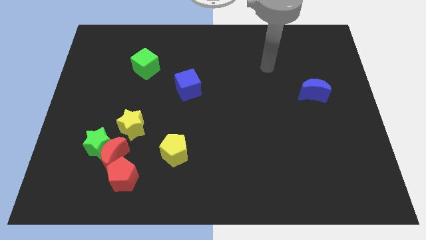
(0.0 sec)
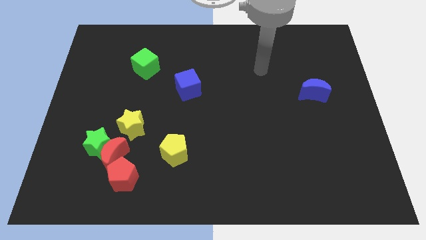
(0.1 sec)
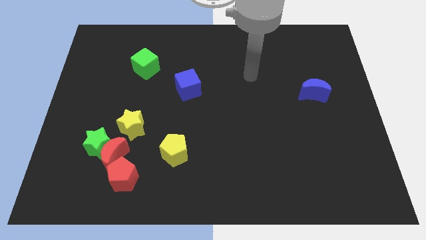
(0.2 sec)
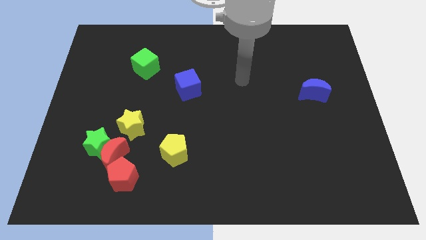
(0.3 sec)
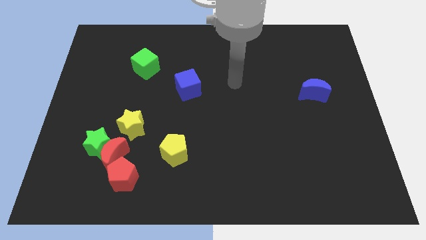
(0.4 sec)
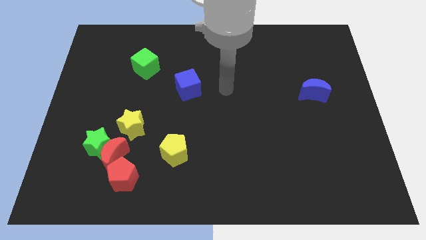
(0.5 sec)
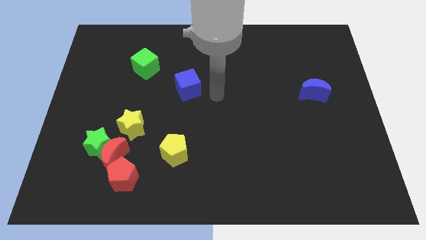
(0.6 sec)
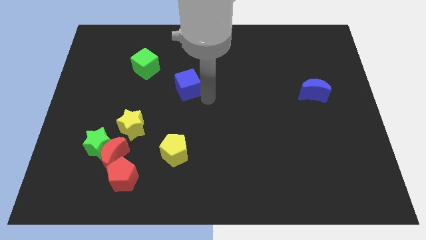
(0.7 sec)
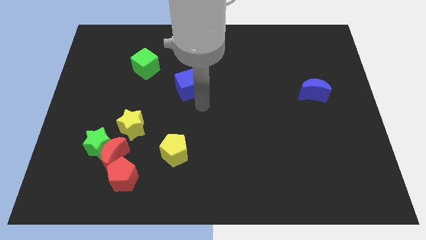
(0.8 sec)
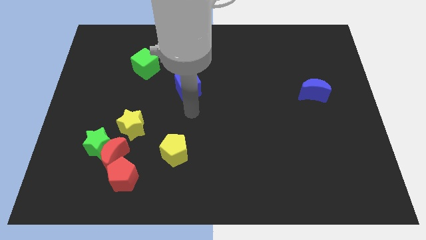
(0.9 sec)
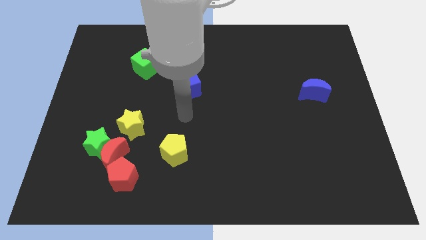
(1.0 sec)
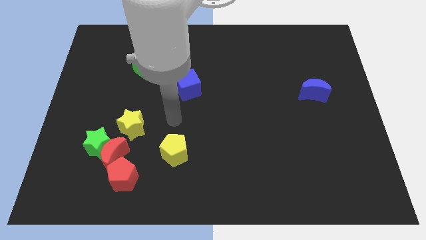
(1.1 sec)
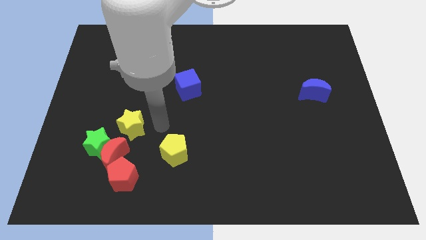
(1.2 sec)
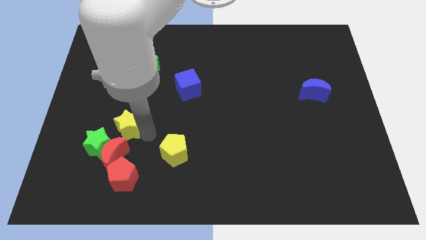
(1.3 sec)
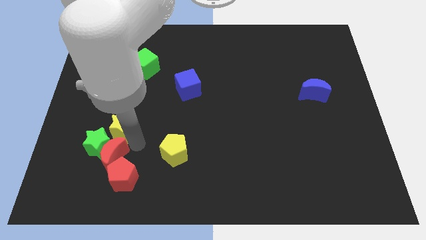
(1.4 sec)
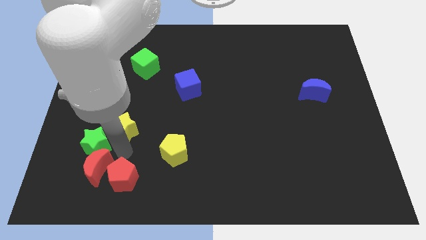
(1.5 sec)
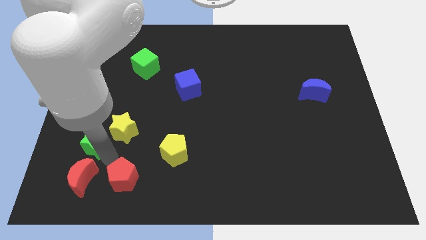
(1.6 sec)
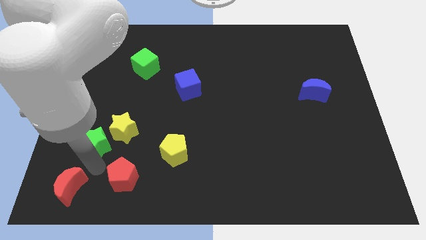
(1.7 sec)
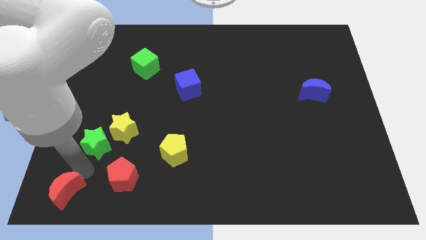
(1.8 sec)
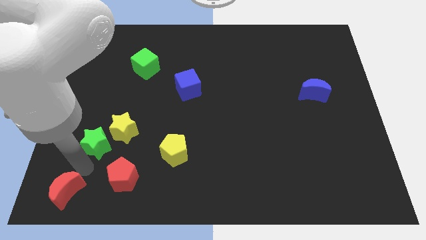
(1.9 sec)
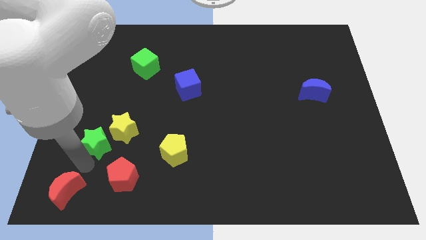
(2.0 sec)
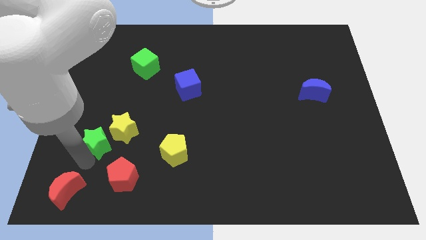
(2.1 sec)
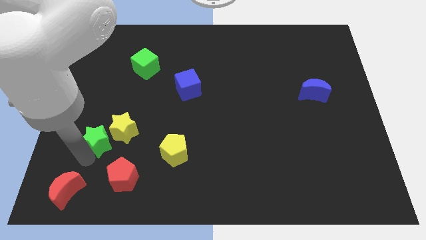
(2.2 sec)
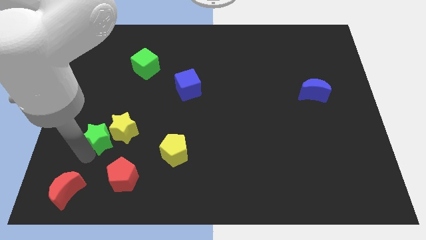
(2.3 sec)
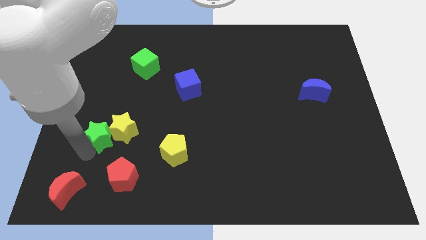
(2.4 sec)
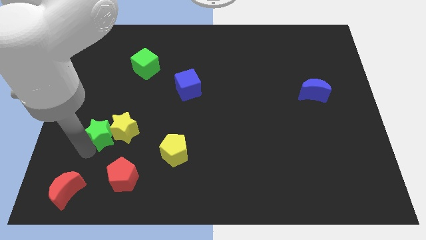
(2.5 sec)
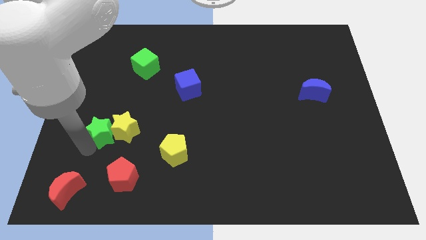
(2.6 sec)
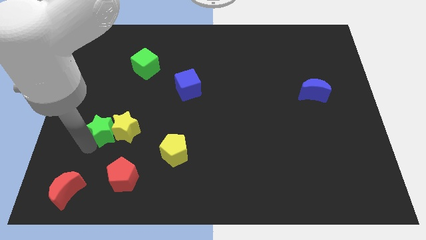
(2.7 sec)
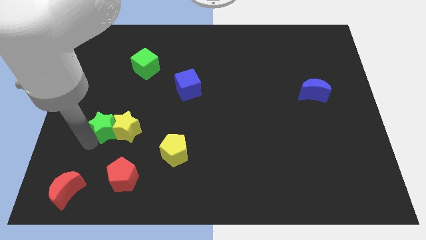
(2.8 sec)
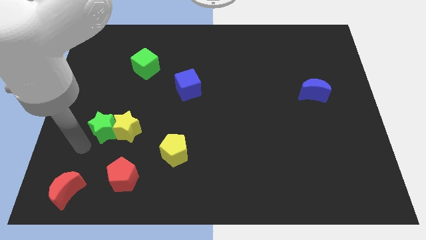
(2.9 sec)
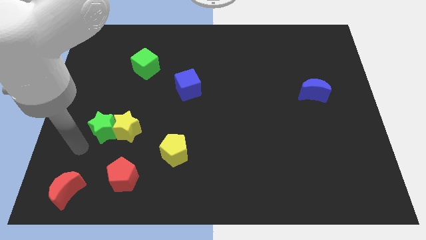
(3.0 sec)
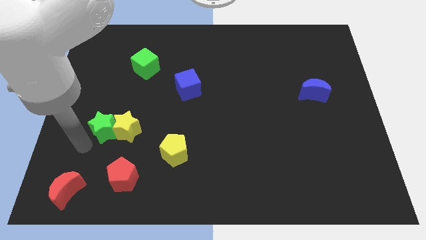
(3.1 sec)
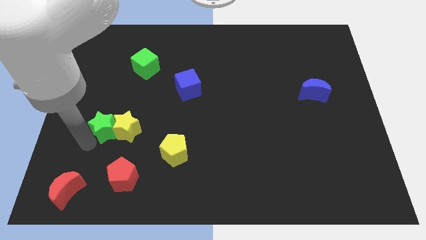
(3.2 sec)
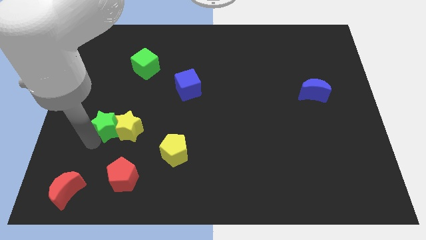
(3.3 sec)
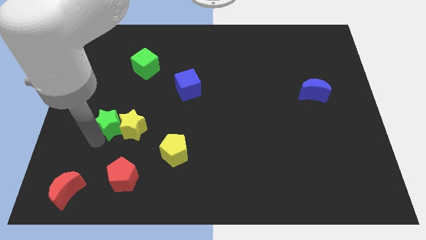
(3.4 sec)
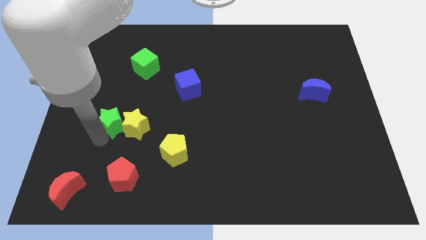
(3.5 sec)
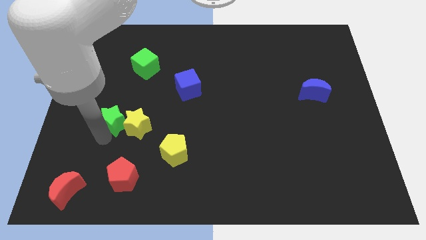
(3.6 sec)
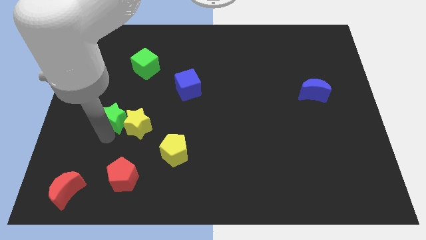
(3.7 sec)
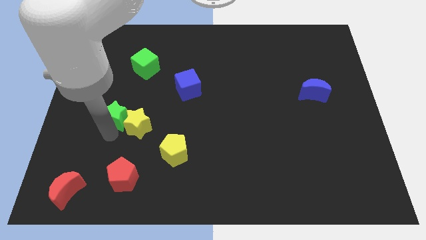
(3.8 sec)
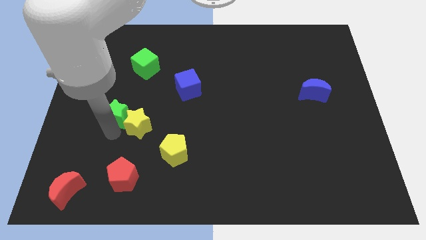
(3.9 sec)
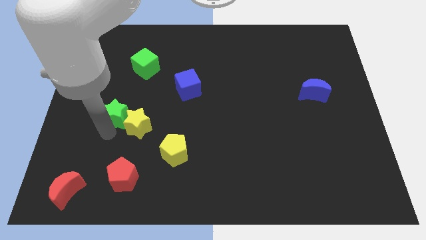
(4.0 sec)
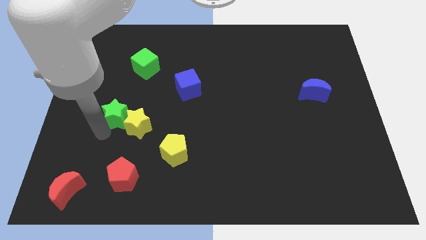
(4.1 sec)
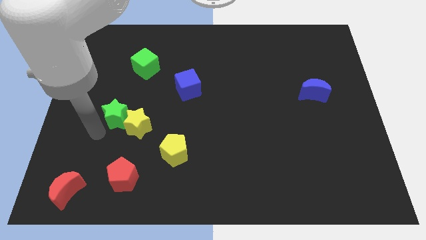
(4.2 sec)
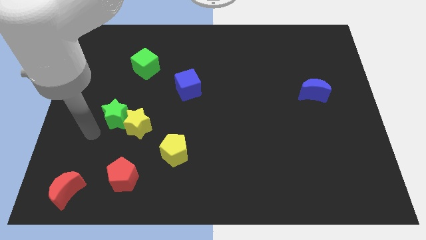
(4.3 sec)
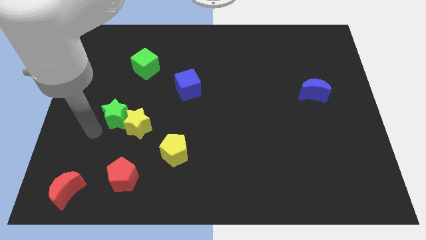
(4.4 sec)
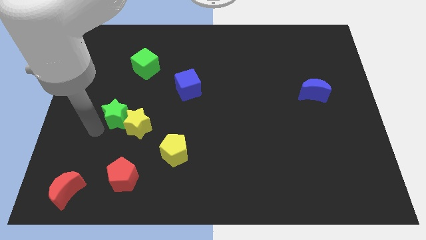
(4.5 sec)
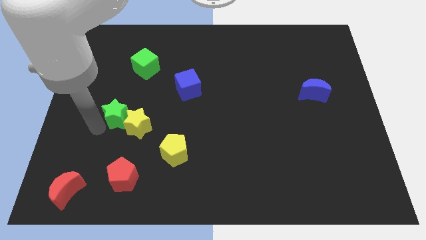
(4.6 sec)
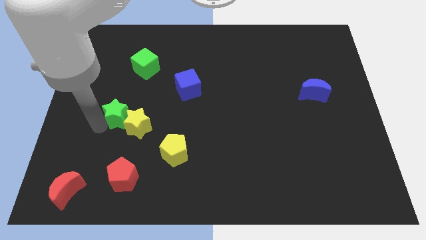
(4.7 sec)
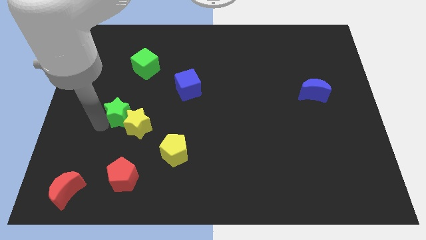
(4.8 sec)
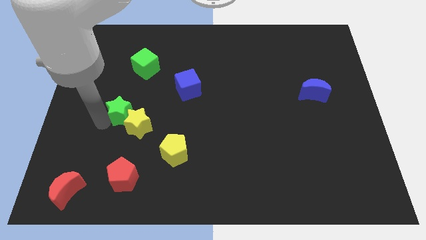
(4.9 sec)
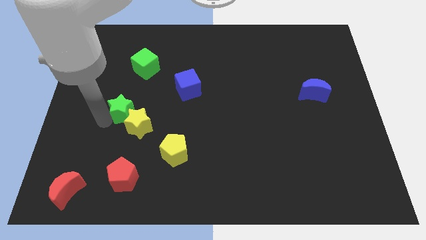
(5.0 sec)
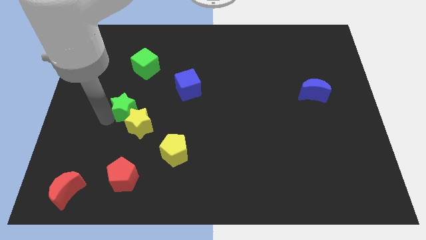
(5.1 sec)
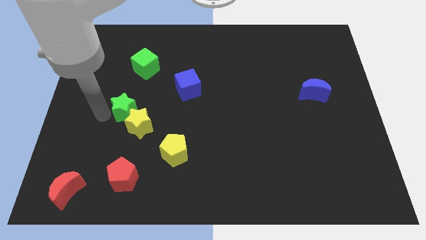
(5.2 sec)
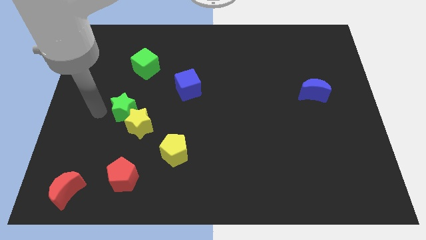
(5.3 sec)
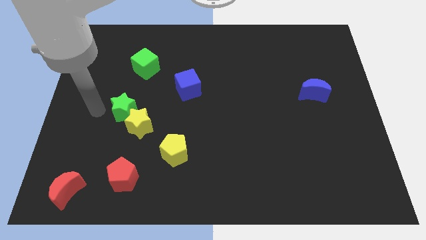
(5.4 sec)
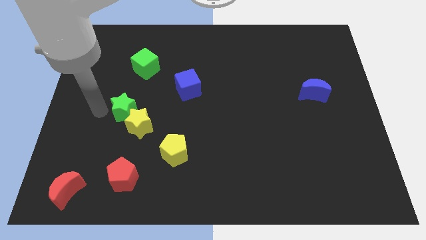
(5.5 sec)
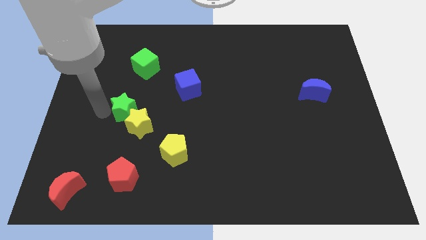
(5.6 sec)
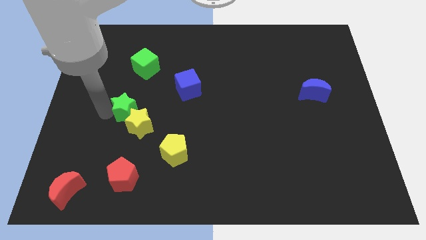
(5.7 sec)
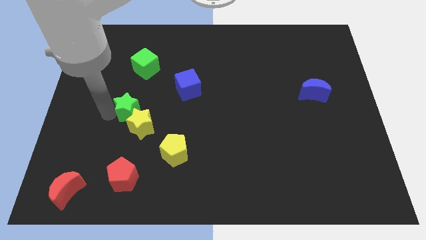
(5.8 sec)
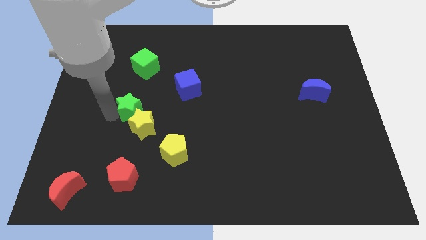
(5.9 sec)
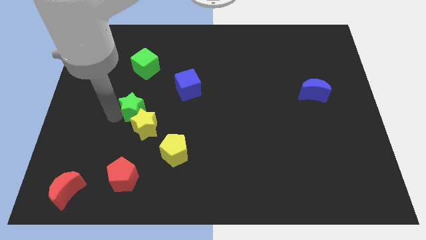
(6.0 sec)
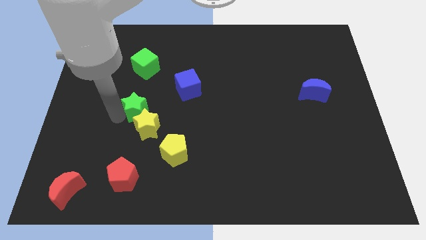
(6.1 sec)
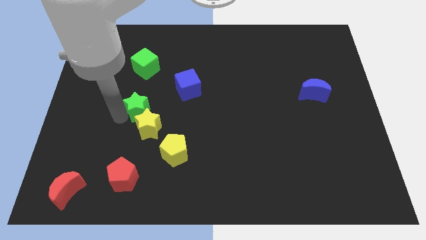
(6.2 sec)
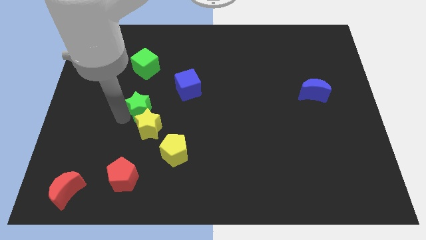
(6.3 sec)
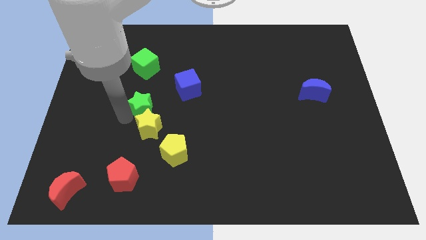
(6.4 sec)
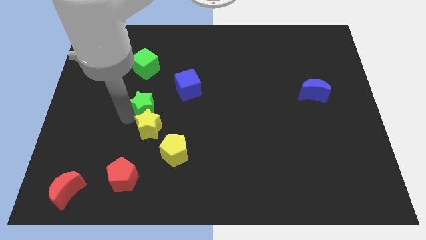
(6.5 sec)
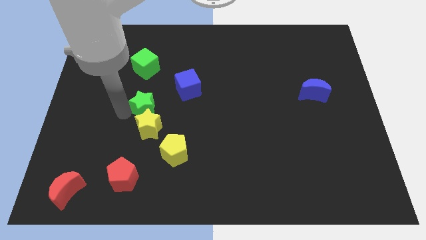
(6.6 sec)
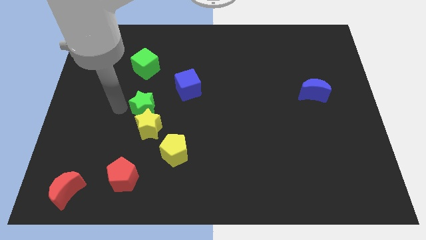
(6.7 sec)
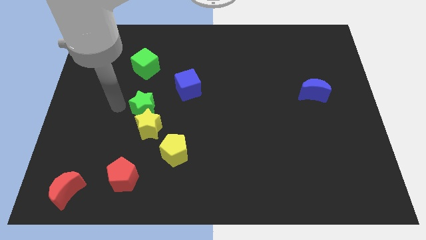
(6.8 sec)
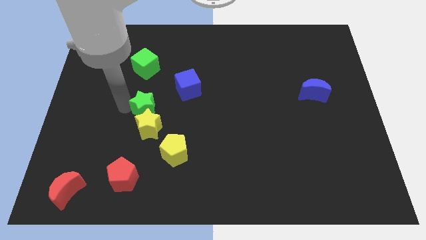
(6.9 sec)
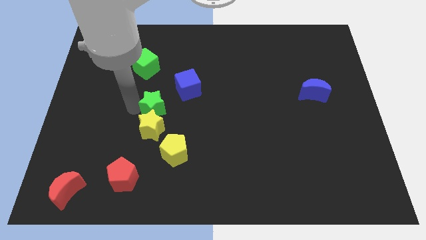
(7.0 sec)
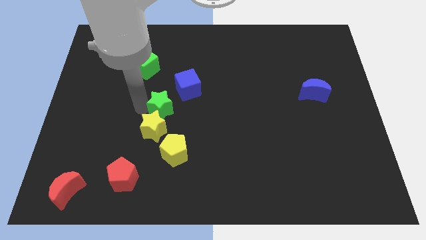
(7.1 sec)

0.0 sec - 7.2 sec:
push the green star above the yellow pentagon

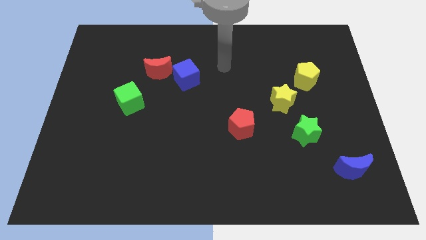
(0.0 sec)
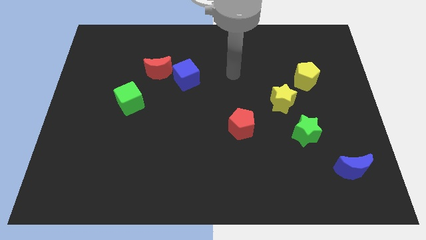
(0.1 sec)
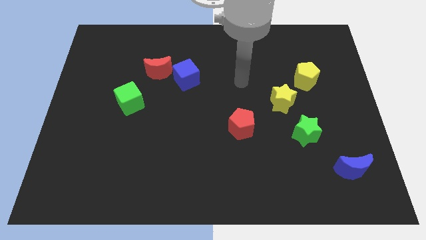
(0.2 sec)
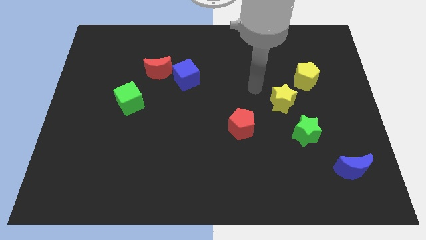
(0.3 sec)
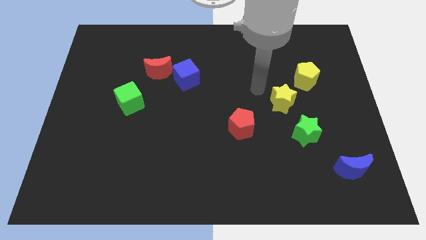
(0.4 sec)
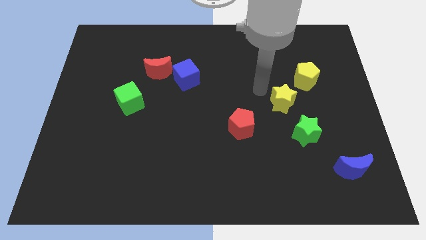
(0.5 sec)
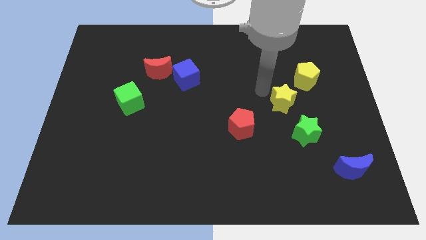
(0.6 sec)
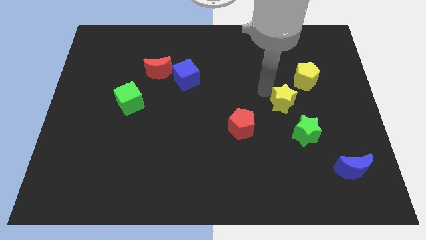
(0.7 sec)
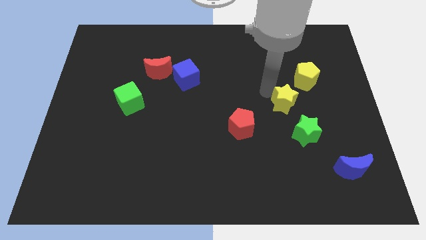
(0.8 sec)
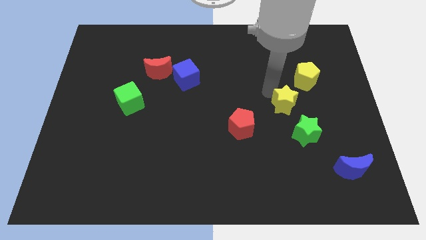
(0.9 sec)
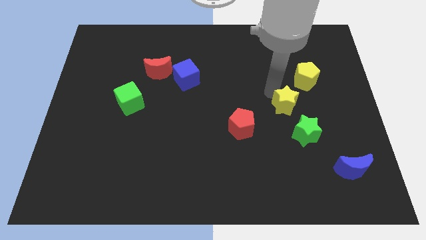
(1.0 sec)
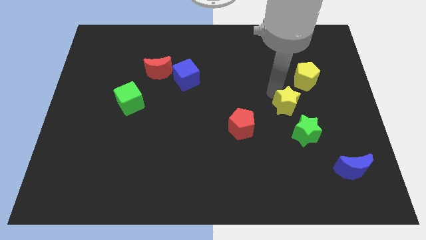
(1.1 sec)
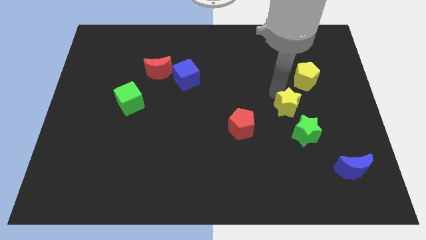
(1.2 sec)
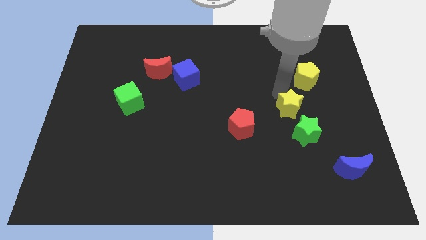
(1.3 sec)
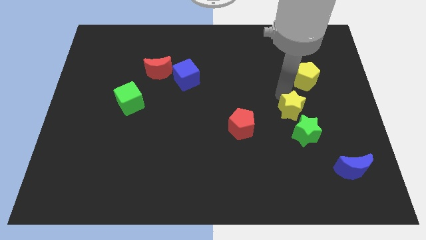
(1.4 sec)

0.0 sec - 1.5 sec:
move the yellow star below the yellow pentagon
